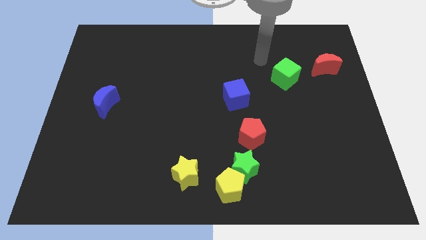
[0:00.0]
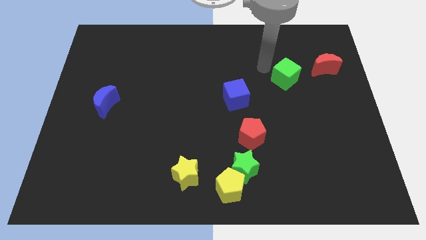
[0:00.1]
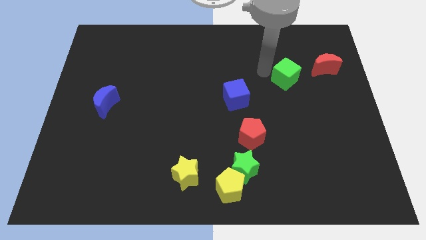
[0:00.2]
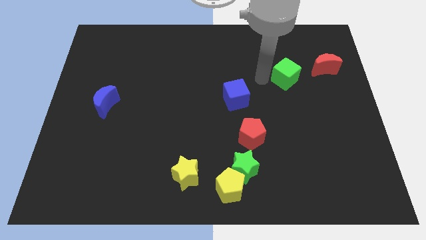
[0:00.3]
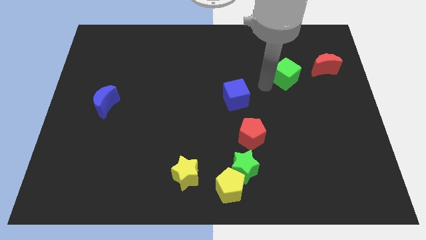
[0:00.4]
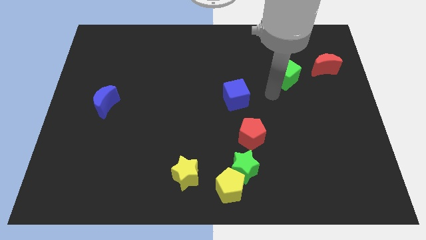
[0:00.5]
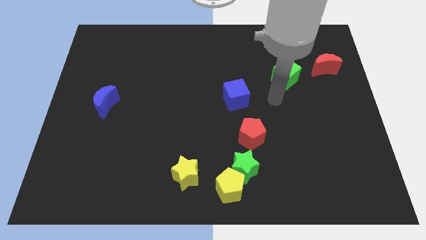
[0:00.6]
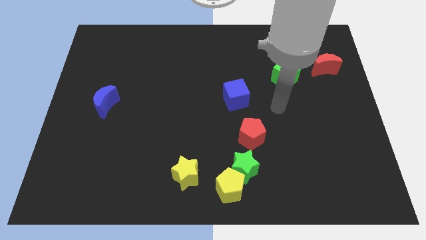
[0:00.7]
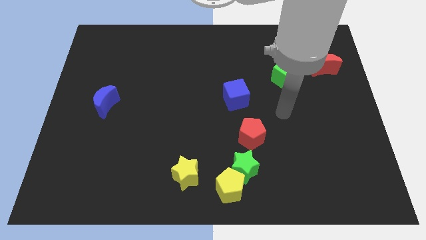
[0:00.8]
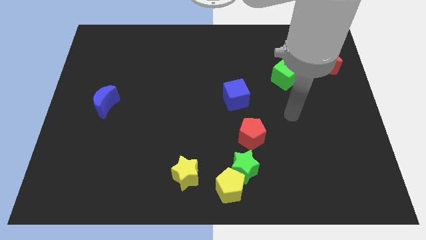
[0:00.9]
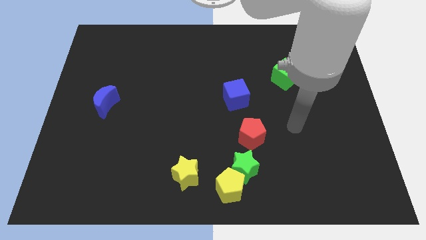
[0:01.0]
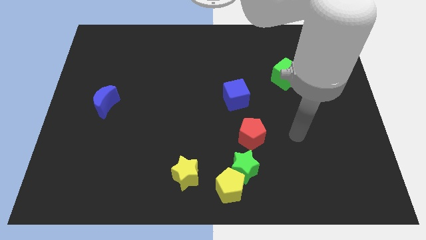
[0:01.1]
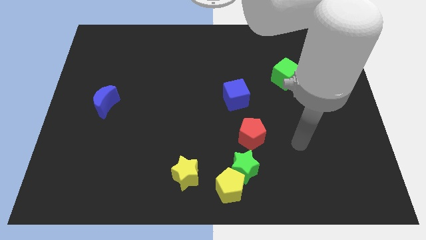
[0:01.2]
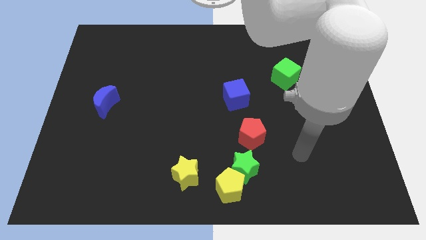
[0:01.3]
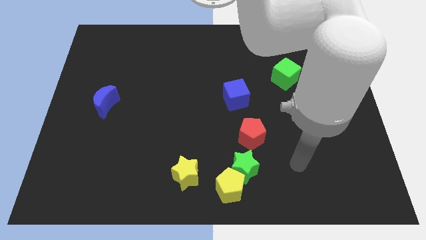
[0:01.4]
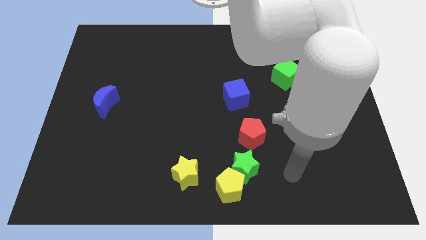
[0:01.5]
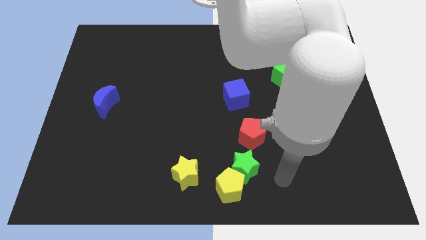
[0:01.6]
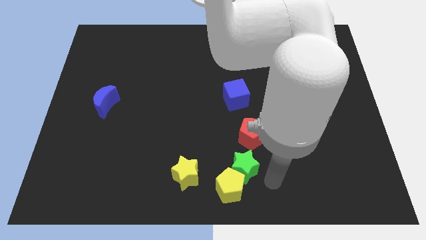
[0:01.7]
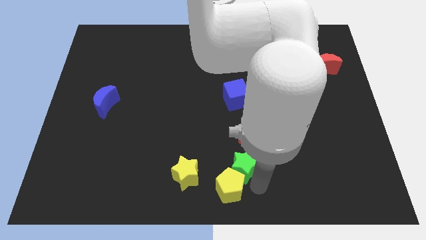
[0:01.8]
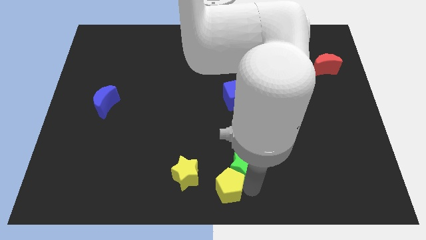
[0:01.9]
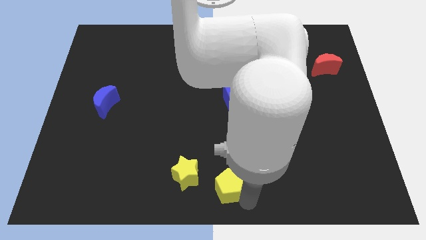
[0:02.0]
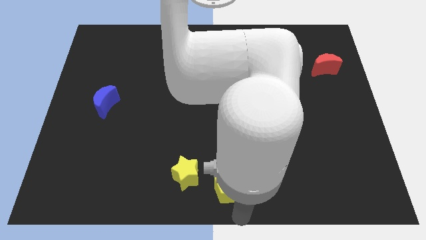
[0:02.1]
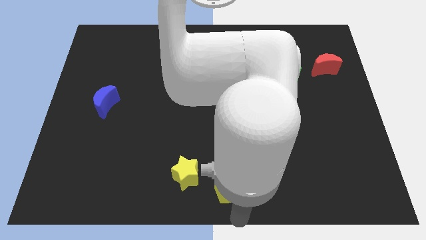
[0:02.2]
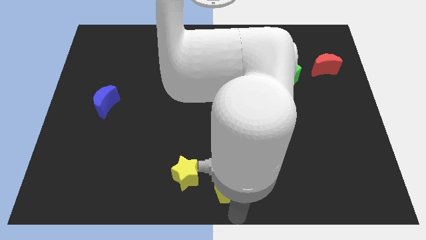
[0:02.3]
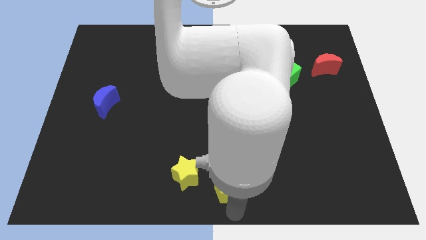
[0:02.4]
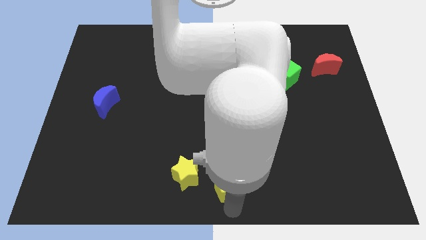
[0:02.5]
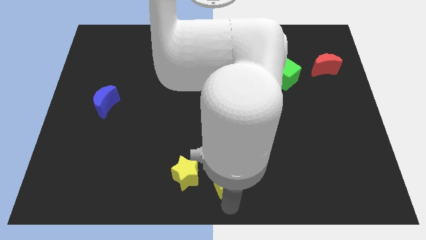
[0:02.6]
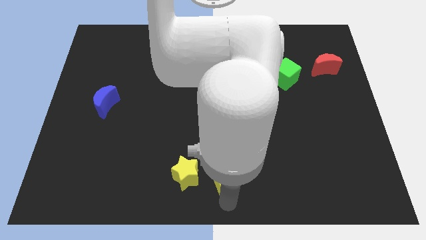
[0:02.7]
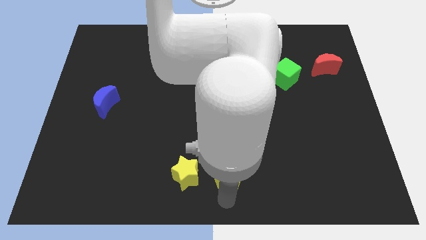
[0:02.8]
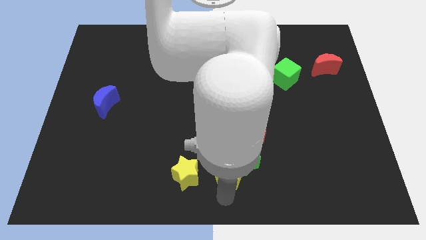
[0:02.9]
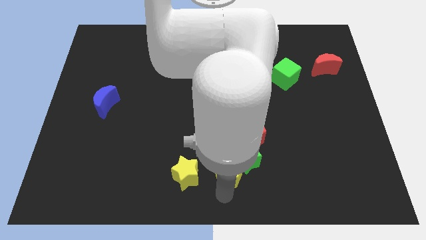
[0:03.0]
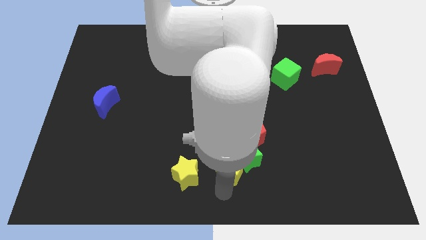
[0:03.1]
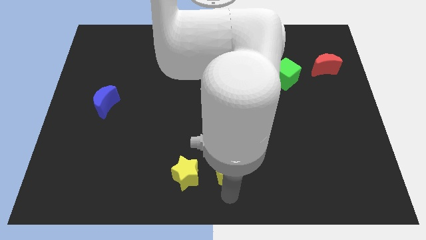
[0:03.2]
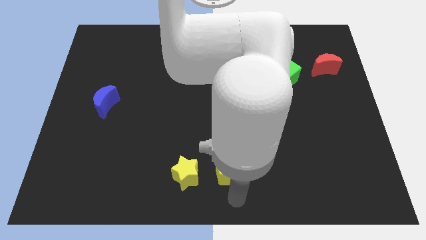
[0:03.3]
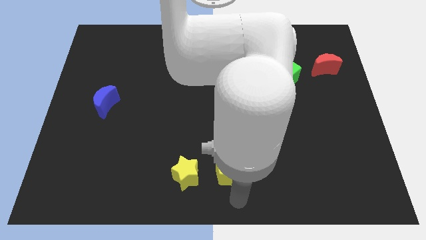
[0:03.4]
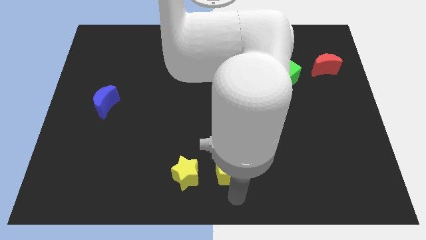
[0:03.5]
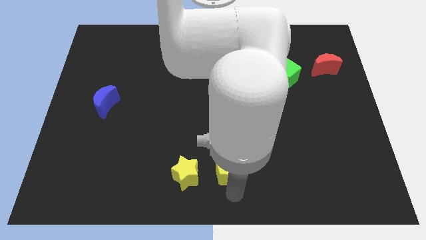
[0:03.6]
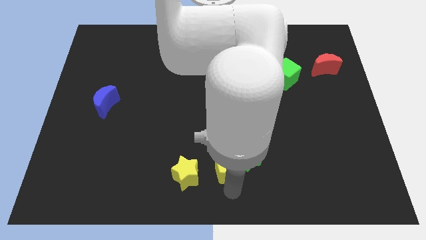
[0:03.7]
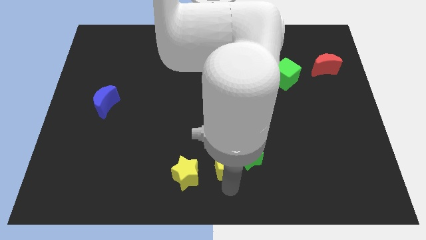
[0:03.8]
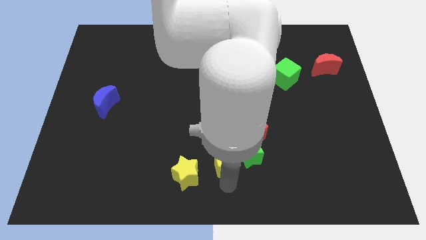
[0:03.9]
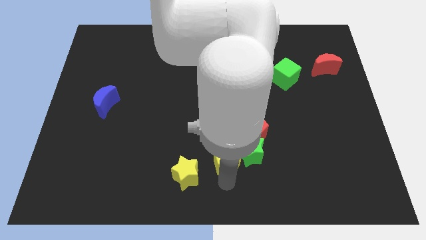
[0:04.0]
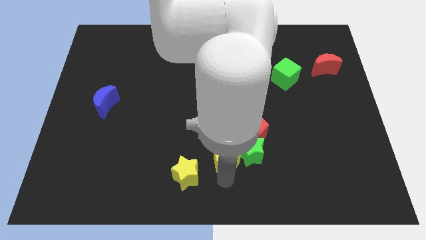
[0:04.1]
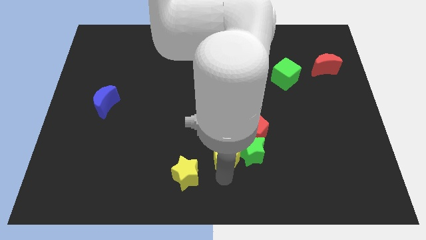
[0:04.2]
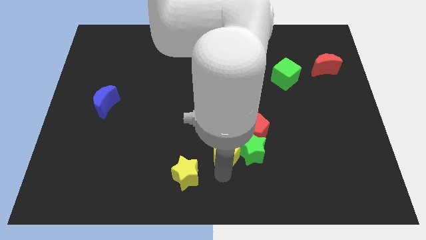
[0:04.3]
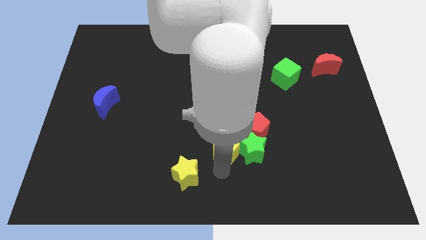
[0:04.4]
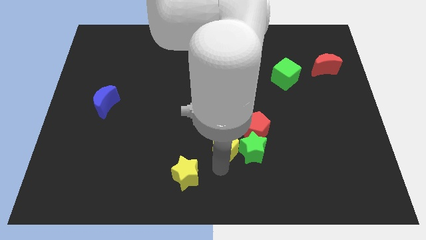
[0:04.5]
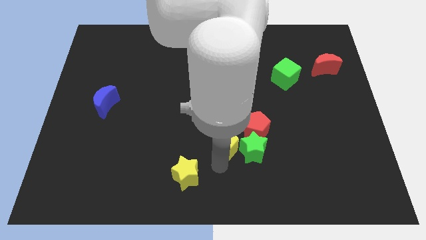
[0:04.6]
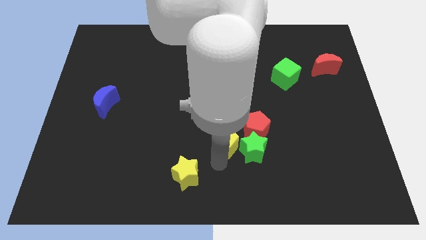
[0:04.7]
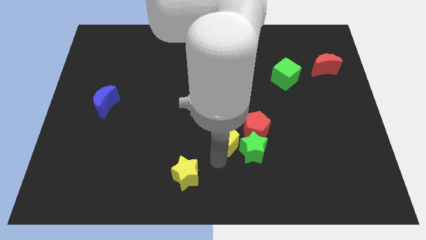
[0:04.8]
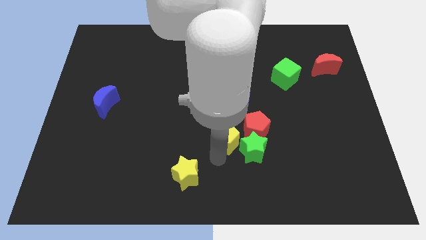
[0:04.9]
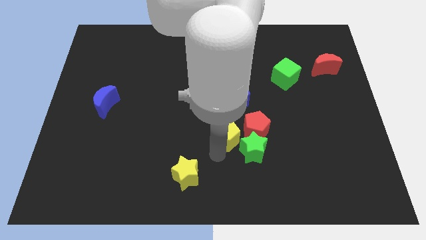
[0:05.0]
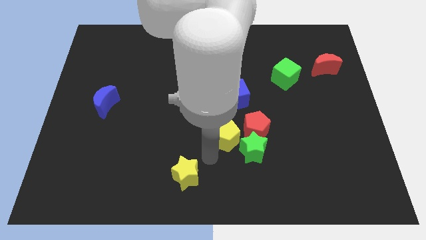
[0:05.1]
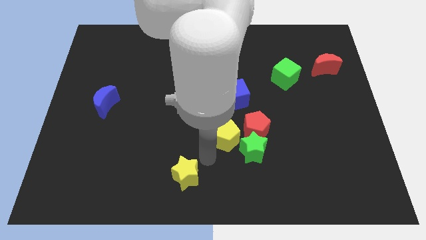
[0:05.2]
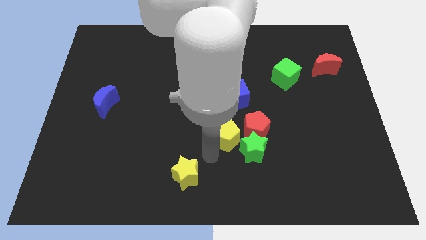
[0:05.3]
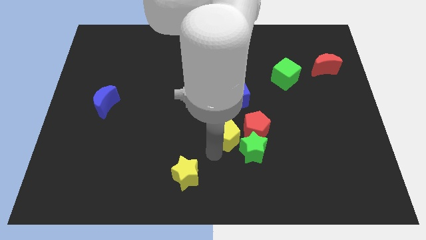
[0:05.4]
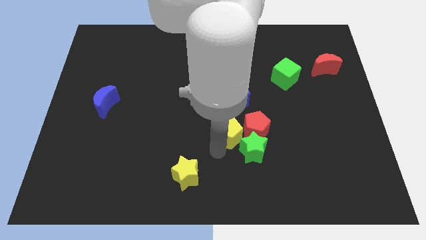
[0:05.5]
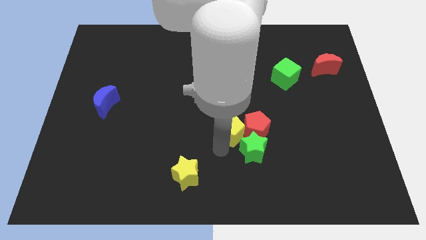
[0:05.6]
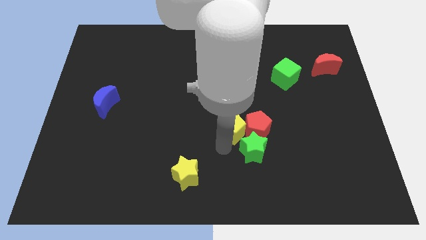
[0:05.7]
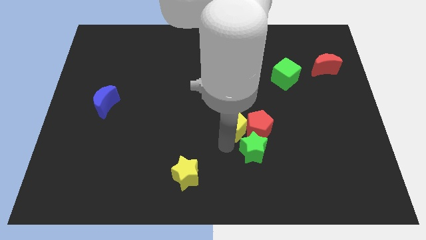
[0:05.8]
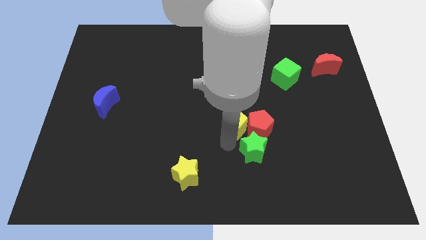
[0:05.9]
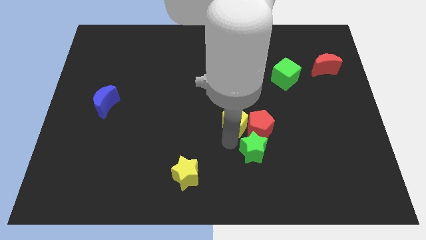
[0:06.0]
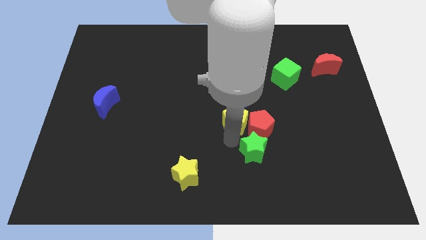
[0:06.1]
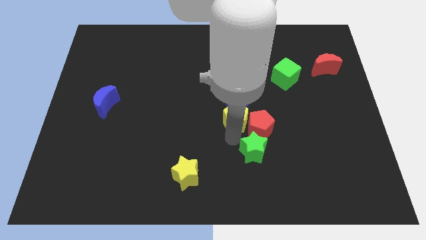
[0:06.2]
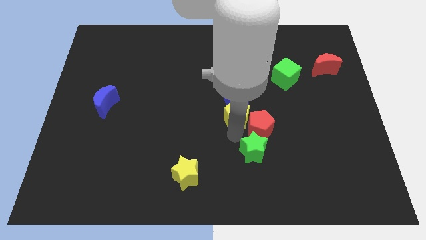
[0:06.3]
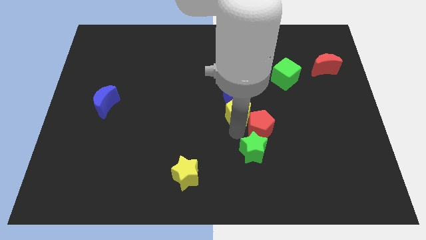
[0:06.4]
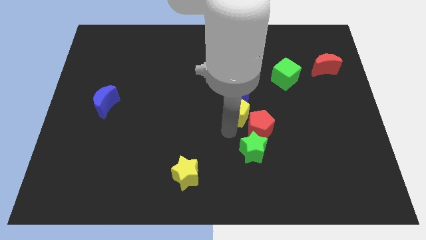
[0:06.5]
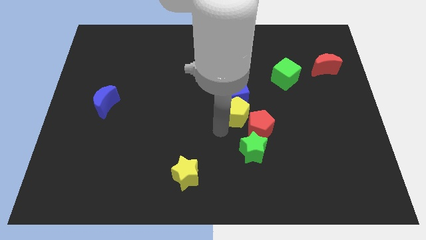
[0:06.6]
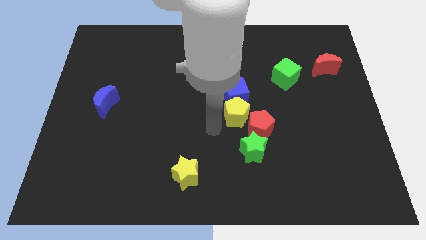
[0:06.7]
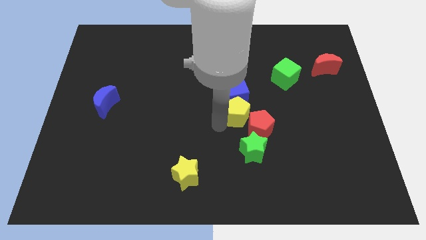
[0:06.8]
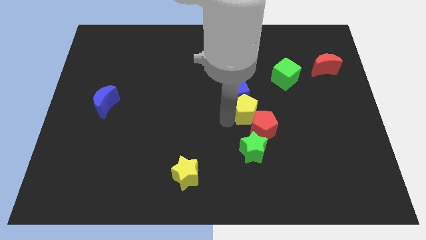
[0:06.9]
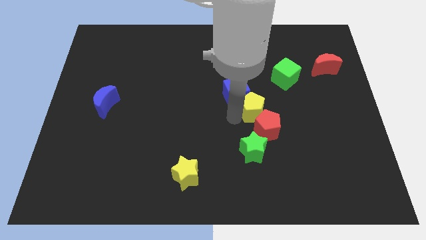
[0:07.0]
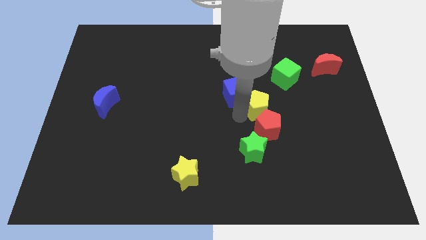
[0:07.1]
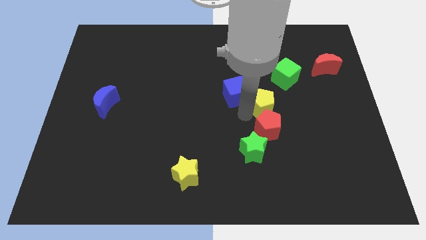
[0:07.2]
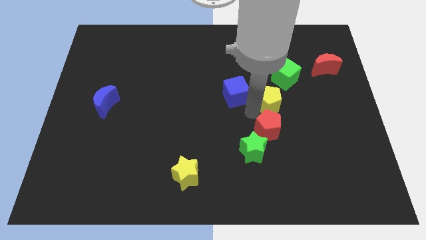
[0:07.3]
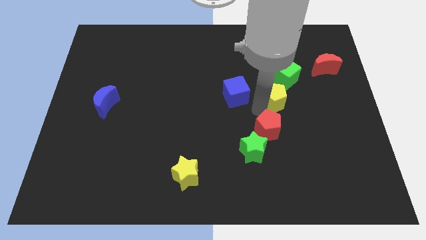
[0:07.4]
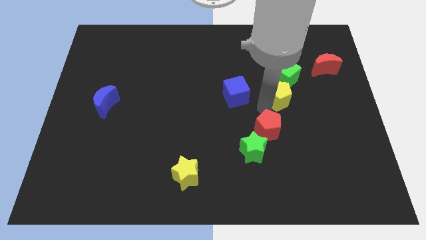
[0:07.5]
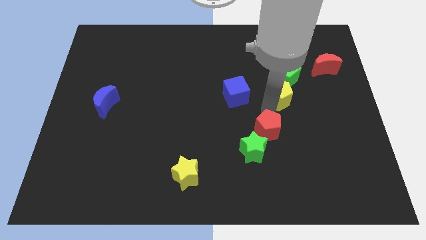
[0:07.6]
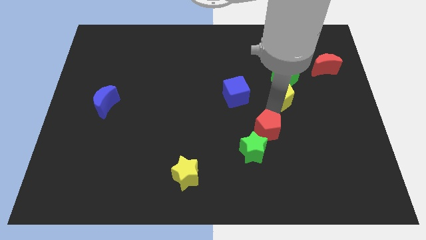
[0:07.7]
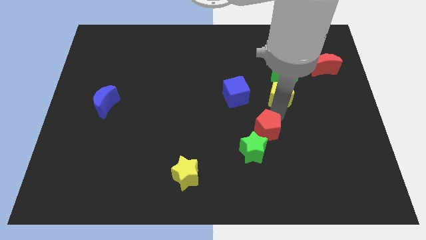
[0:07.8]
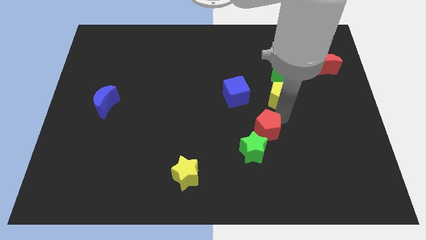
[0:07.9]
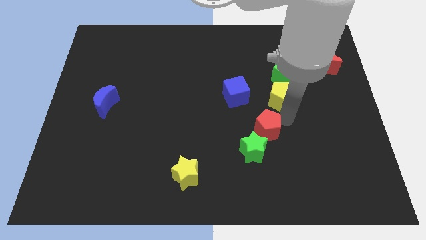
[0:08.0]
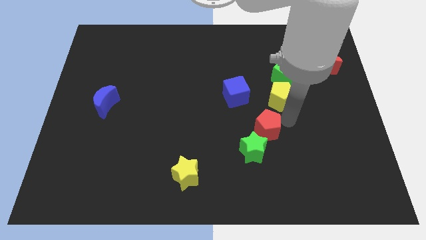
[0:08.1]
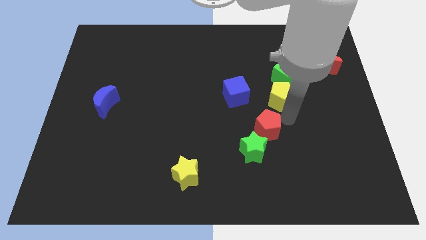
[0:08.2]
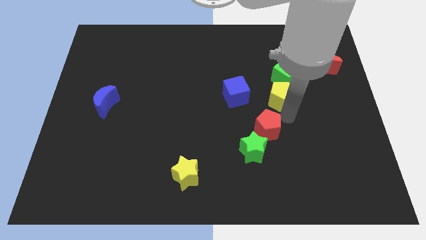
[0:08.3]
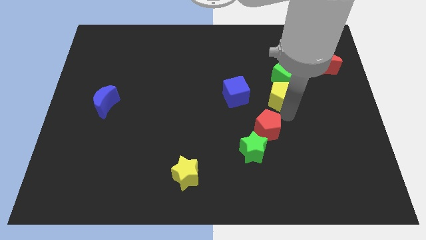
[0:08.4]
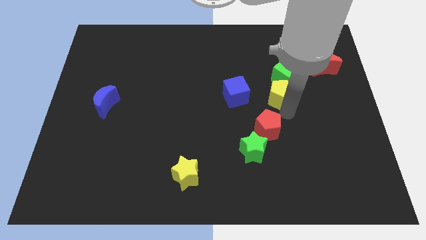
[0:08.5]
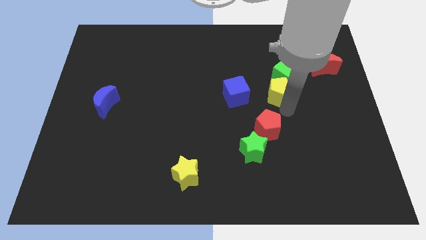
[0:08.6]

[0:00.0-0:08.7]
move the yellow pentagon close to the green cube
